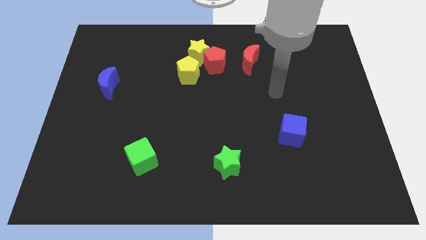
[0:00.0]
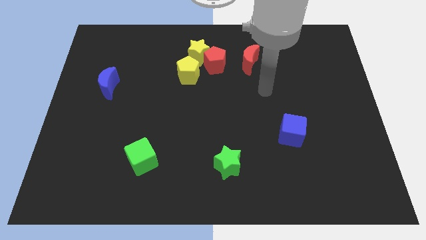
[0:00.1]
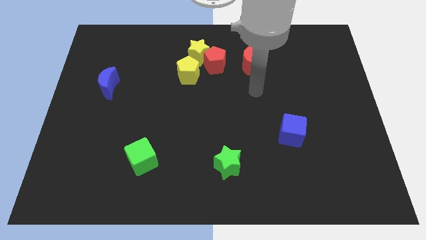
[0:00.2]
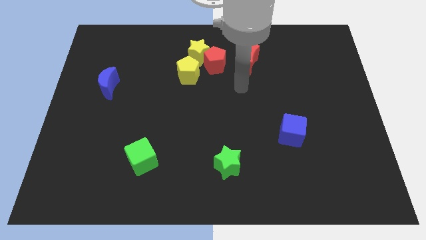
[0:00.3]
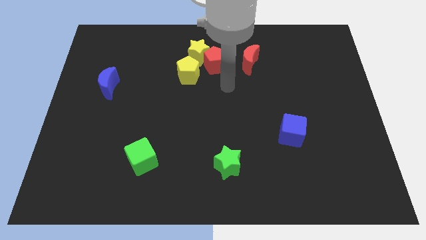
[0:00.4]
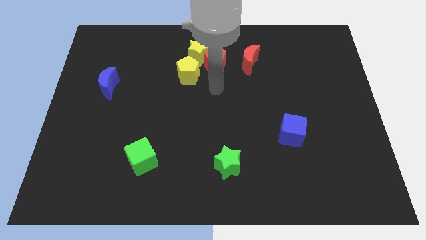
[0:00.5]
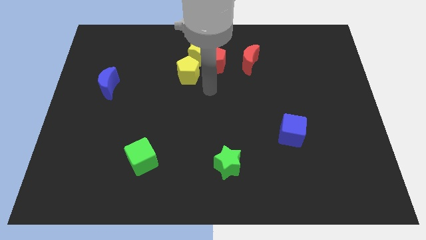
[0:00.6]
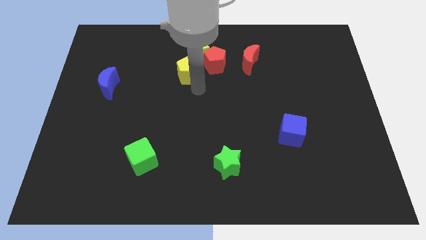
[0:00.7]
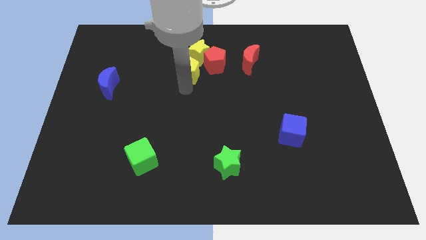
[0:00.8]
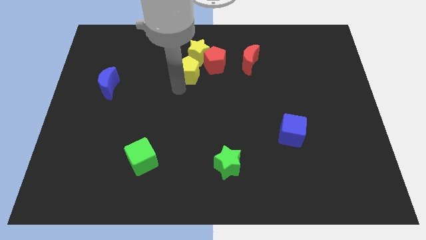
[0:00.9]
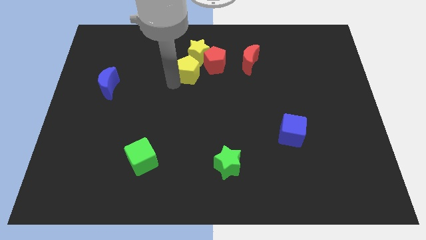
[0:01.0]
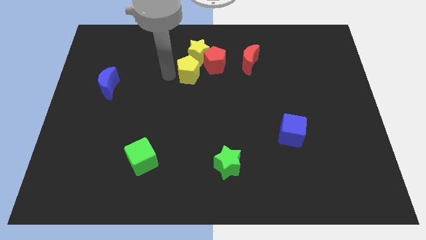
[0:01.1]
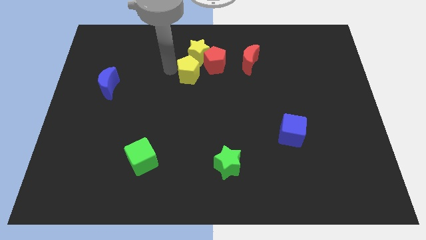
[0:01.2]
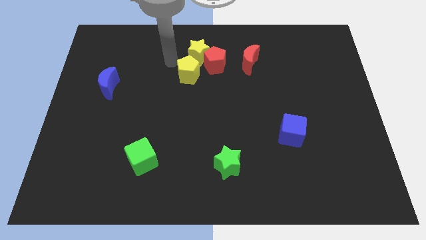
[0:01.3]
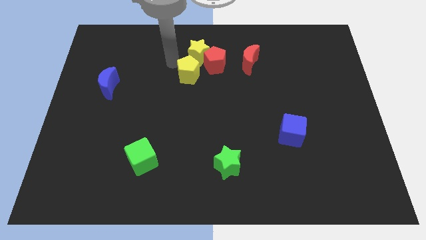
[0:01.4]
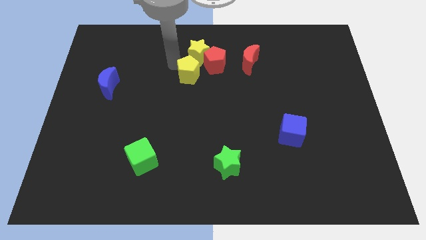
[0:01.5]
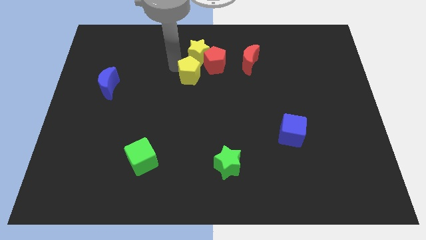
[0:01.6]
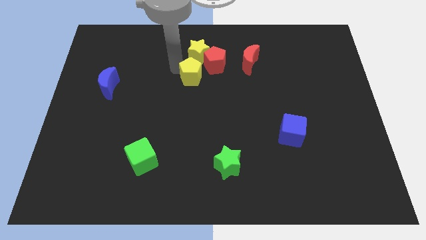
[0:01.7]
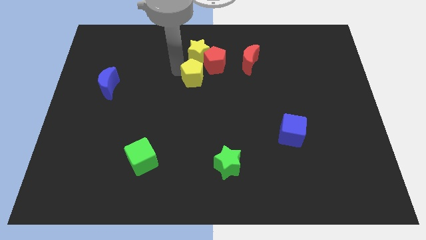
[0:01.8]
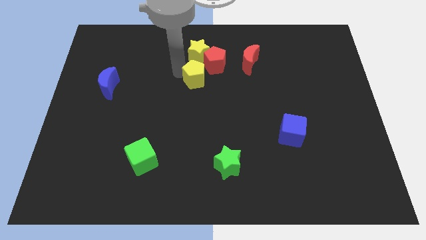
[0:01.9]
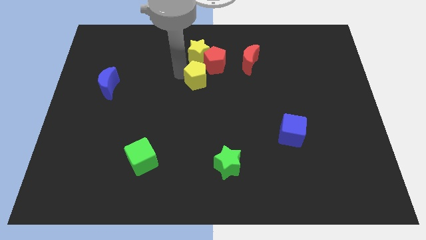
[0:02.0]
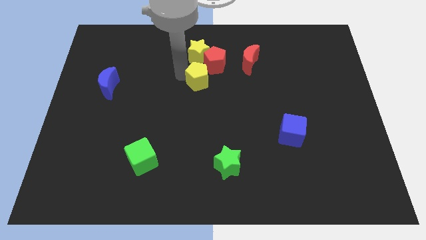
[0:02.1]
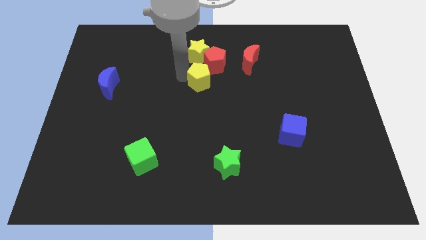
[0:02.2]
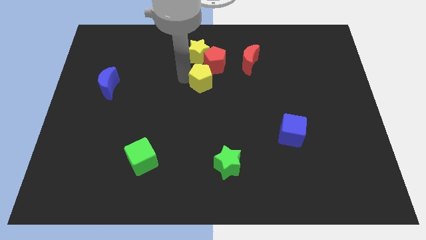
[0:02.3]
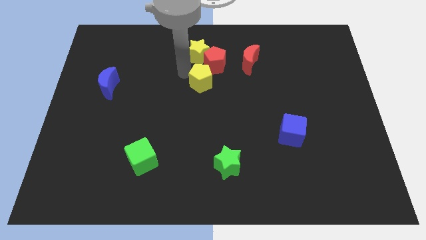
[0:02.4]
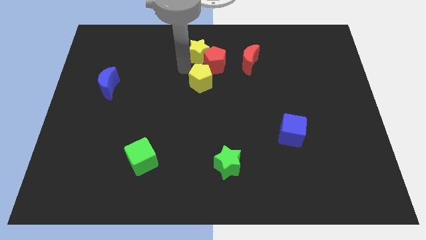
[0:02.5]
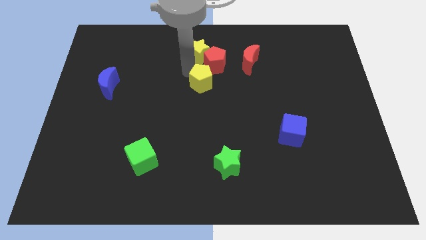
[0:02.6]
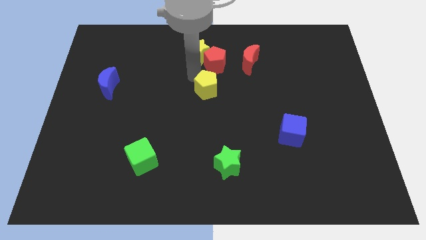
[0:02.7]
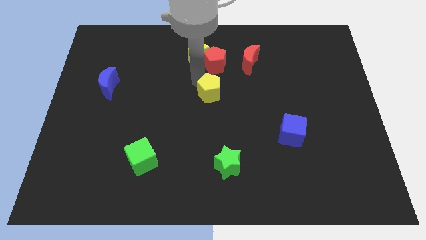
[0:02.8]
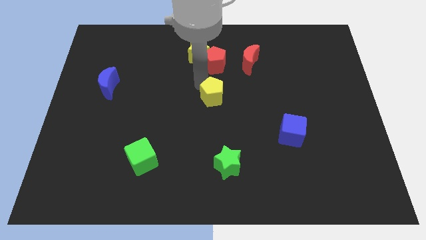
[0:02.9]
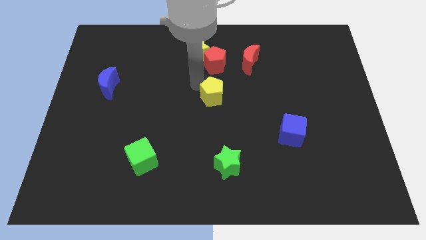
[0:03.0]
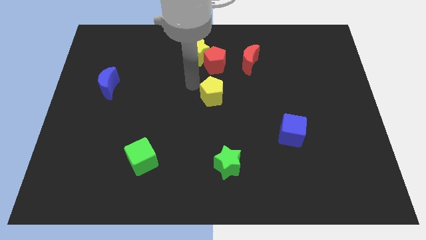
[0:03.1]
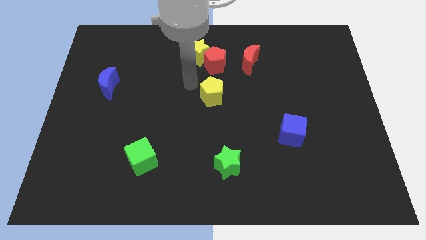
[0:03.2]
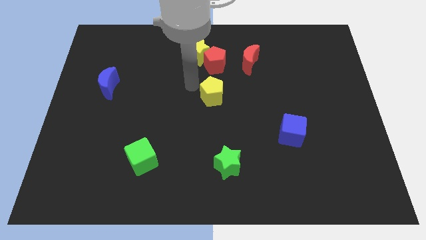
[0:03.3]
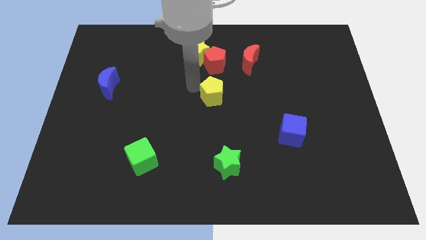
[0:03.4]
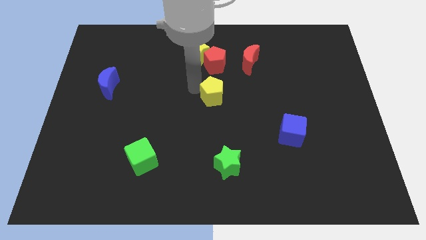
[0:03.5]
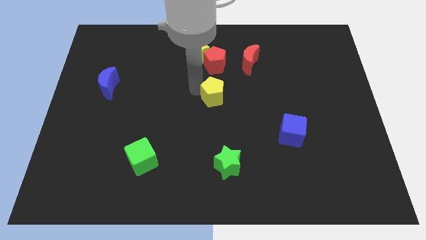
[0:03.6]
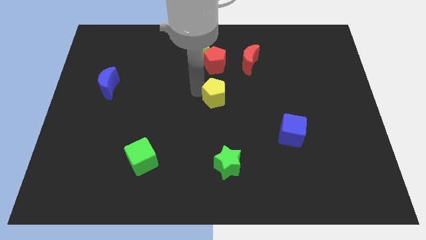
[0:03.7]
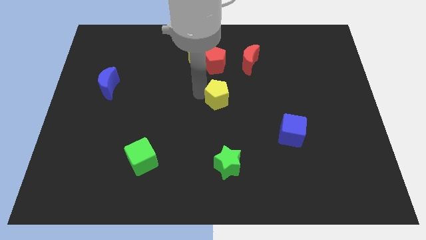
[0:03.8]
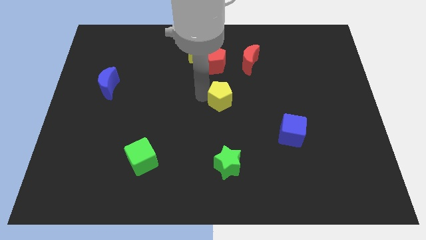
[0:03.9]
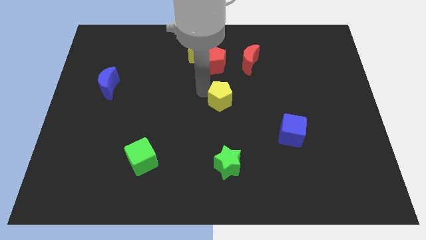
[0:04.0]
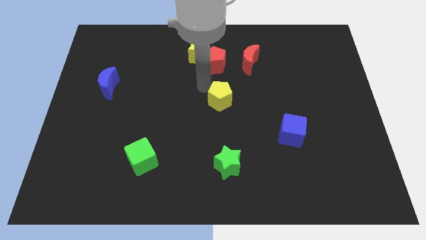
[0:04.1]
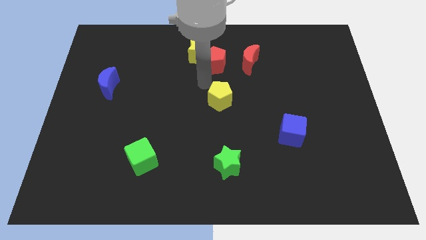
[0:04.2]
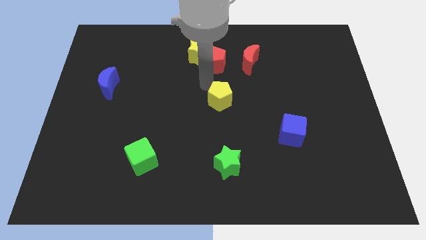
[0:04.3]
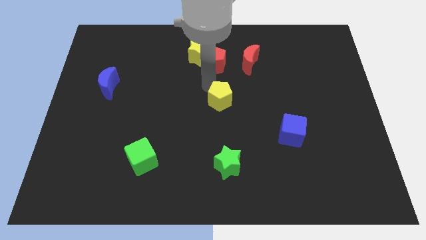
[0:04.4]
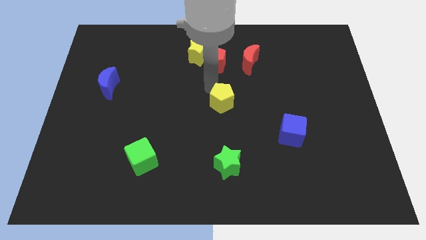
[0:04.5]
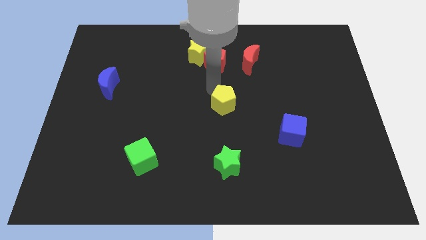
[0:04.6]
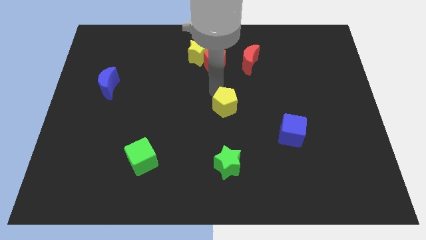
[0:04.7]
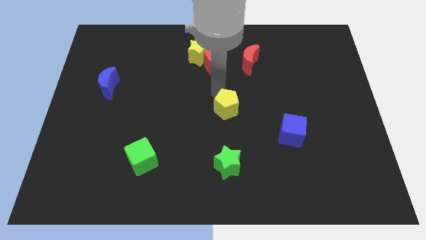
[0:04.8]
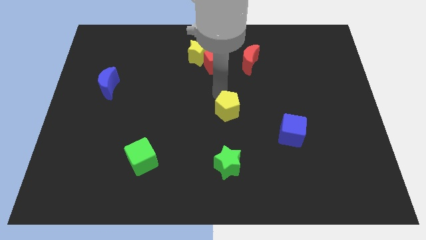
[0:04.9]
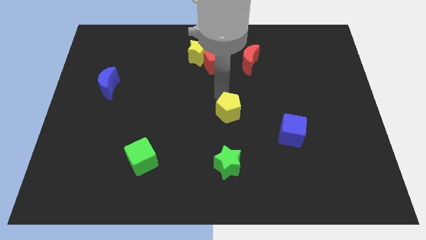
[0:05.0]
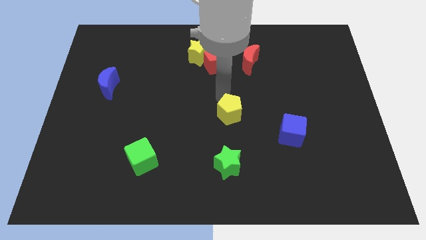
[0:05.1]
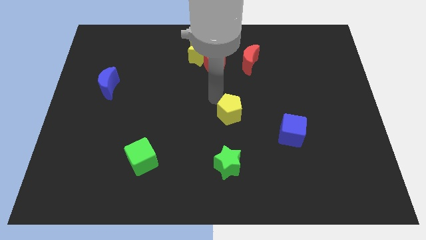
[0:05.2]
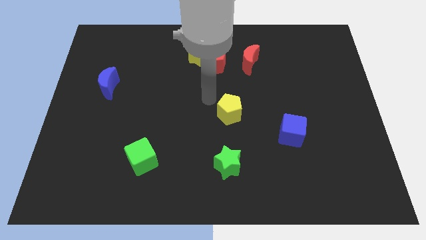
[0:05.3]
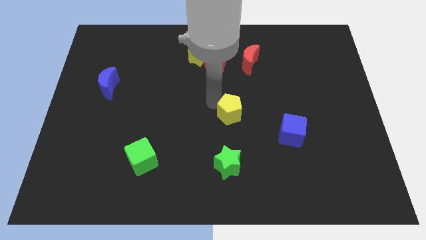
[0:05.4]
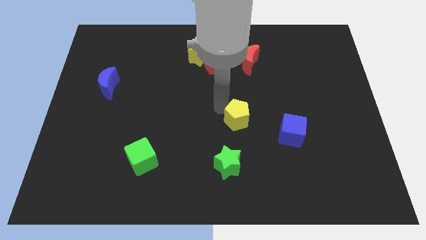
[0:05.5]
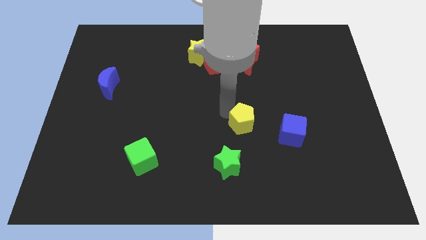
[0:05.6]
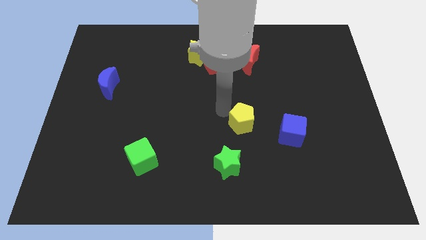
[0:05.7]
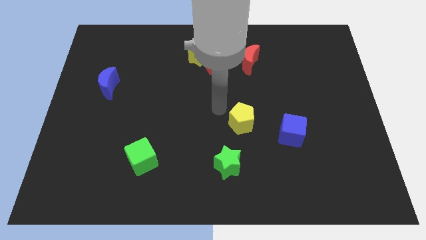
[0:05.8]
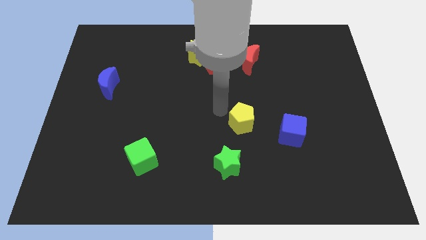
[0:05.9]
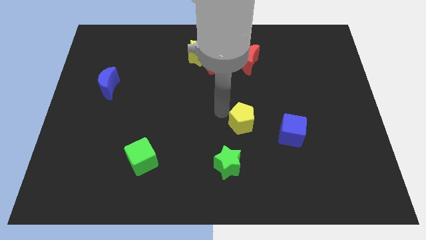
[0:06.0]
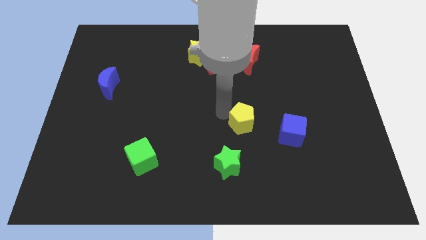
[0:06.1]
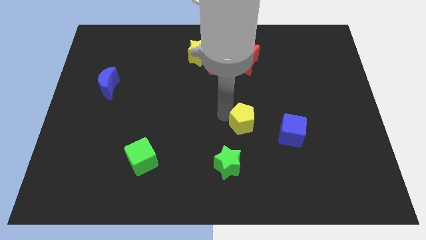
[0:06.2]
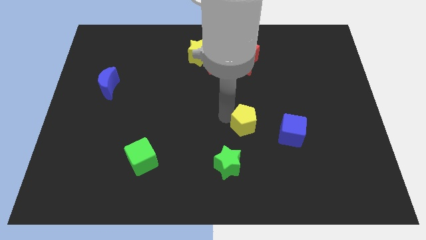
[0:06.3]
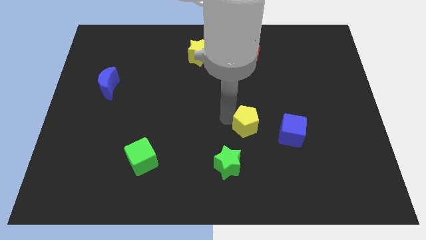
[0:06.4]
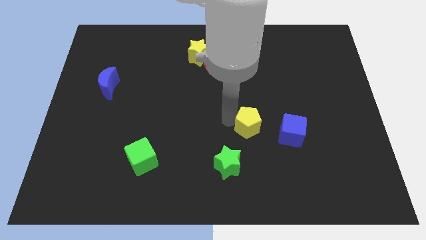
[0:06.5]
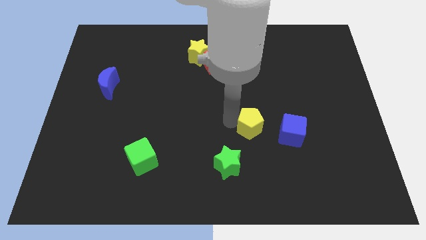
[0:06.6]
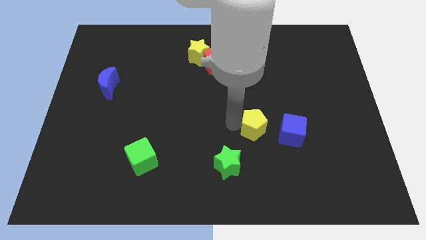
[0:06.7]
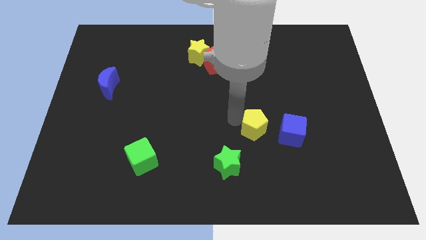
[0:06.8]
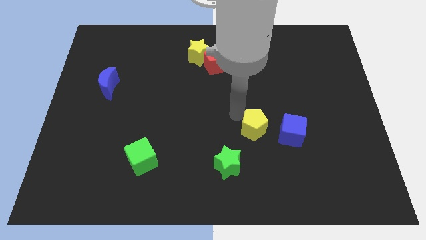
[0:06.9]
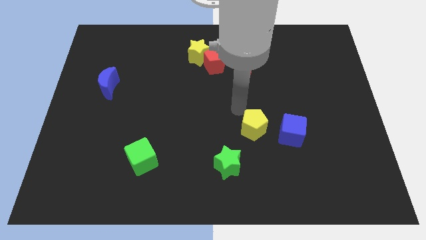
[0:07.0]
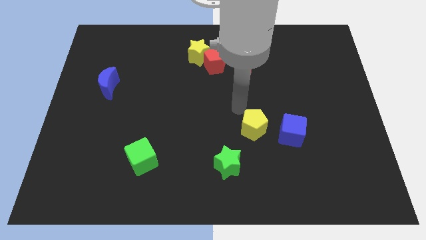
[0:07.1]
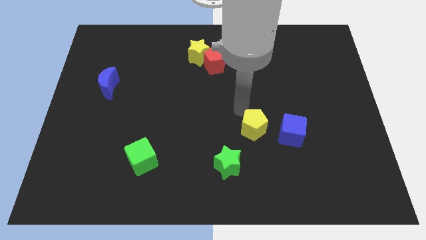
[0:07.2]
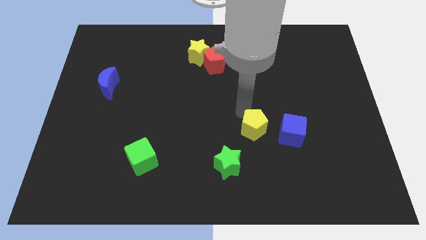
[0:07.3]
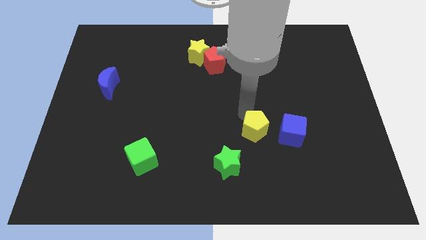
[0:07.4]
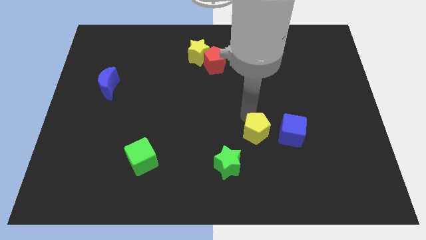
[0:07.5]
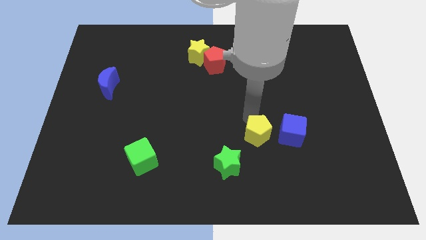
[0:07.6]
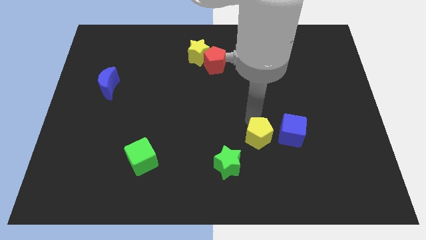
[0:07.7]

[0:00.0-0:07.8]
put the yellow pentagon diagonally down and to the left of the blue cube

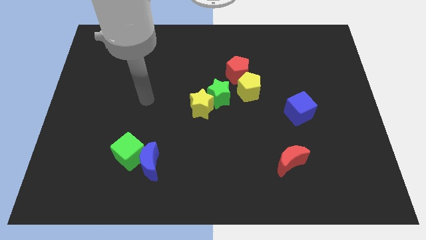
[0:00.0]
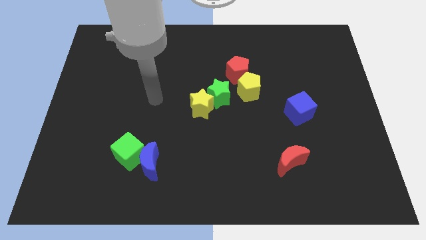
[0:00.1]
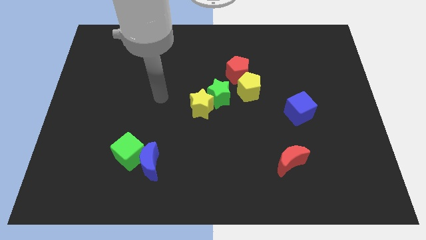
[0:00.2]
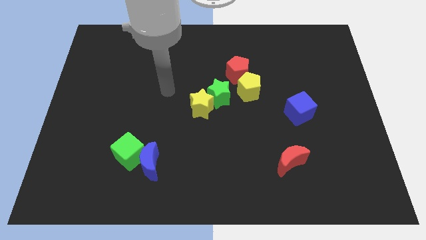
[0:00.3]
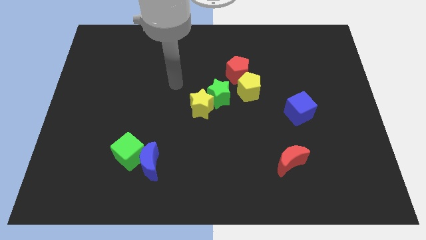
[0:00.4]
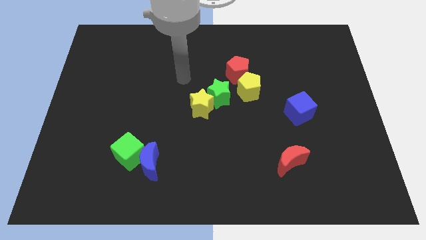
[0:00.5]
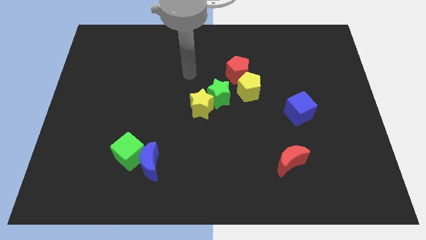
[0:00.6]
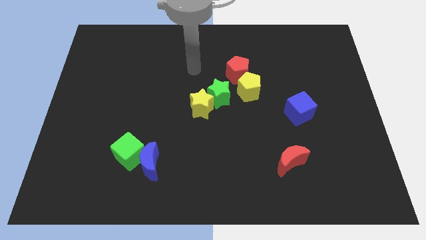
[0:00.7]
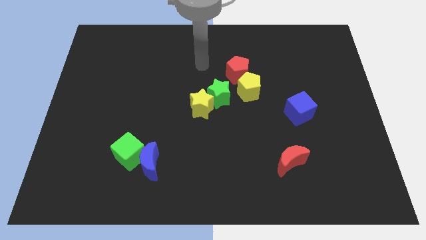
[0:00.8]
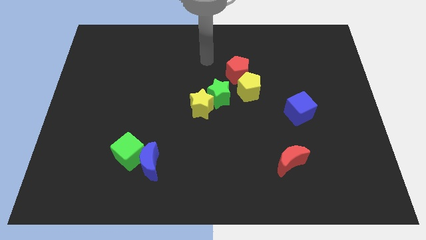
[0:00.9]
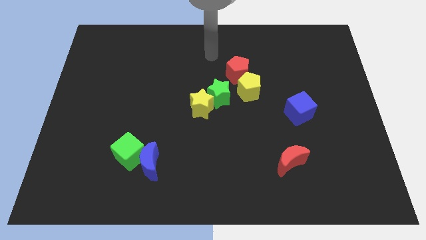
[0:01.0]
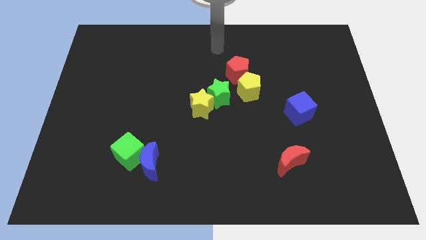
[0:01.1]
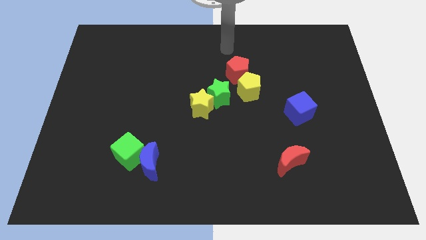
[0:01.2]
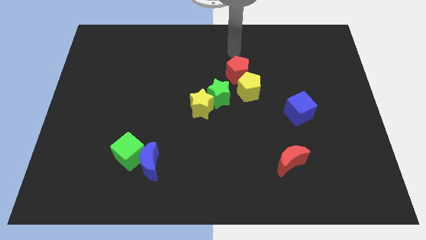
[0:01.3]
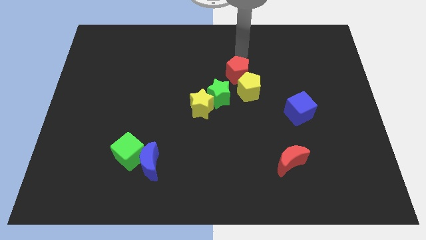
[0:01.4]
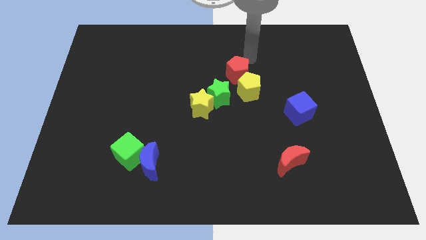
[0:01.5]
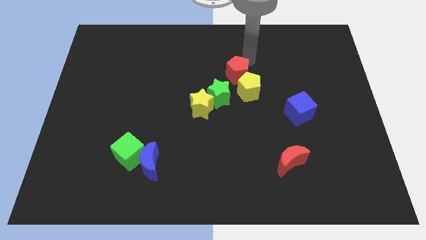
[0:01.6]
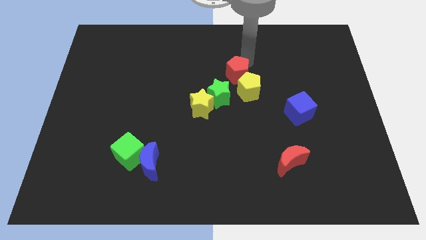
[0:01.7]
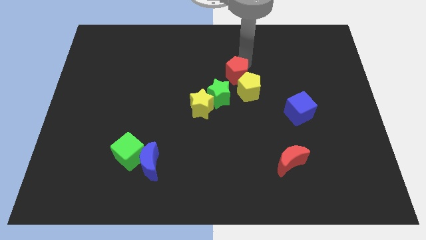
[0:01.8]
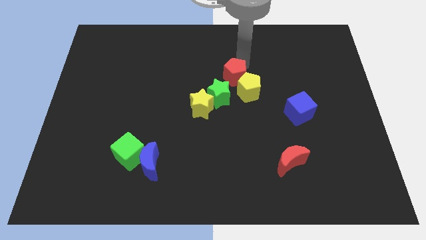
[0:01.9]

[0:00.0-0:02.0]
push the red pentagon diagonally up and to the right of the yellow star
